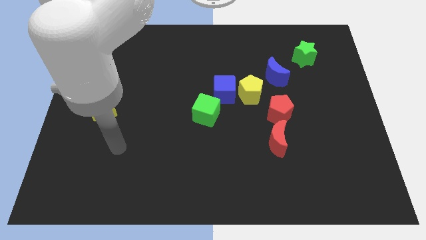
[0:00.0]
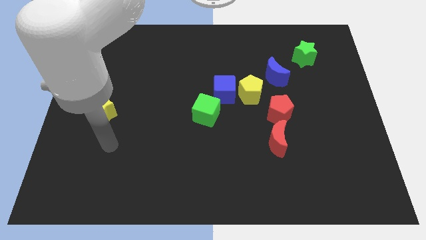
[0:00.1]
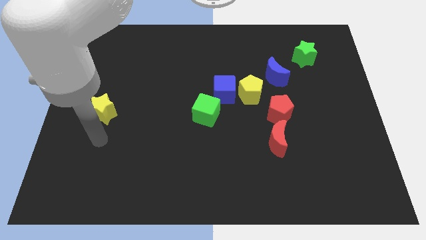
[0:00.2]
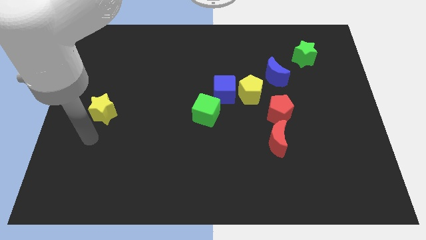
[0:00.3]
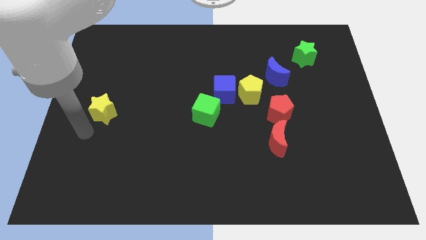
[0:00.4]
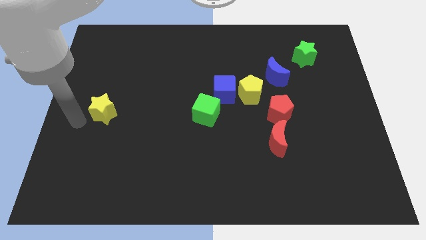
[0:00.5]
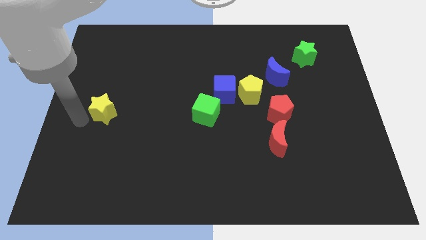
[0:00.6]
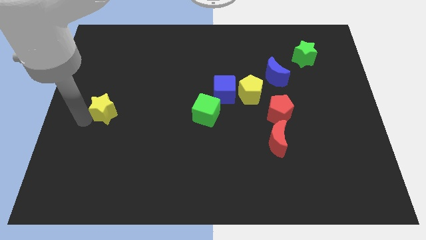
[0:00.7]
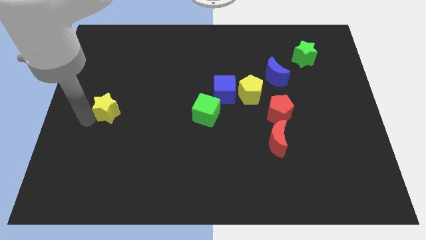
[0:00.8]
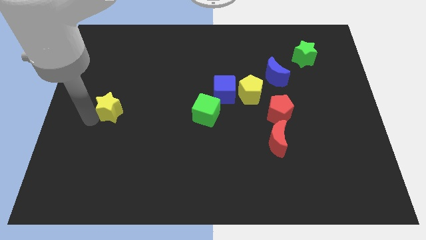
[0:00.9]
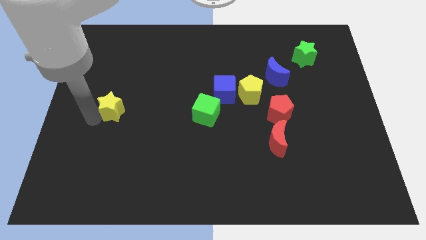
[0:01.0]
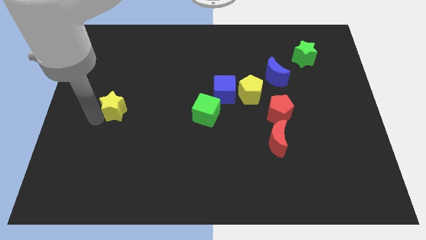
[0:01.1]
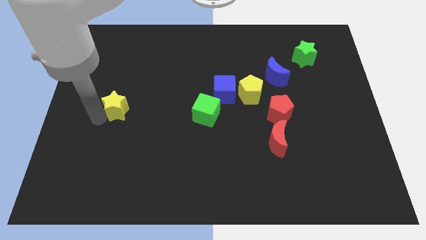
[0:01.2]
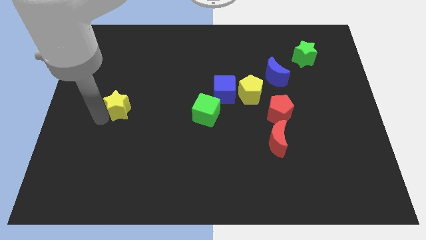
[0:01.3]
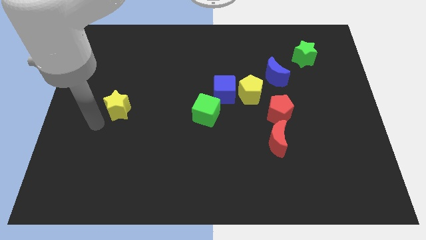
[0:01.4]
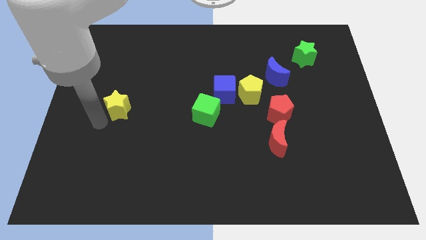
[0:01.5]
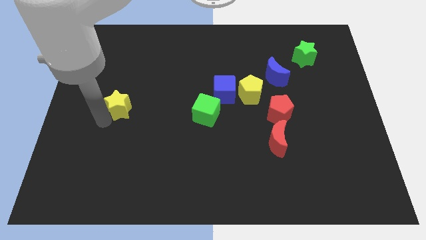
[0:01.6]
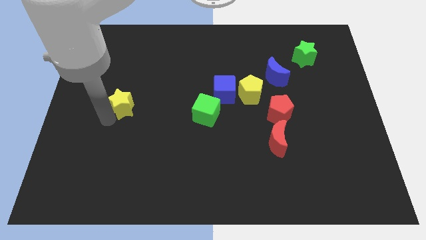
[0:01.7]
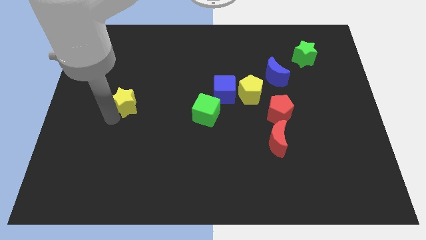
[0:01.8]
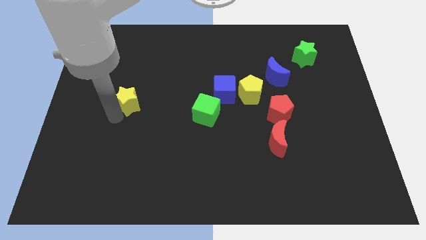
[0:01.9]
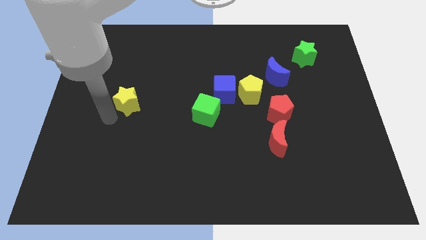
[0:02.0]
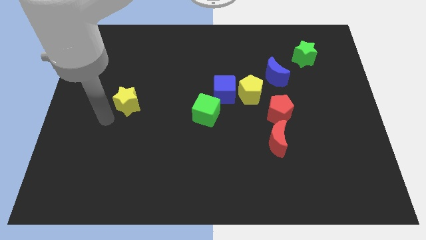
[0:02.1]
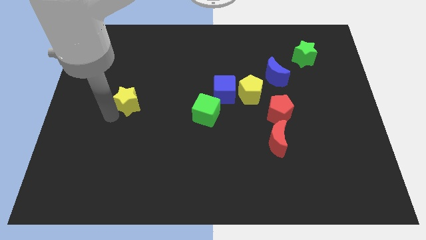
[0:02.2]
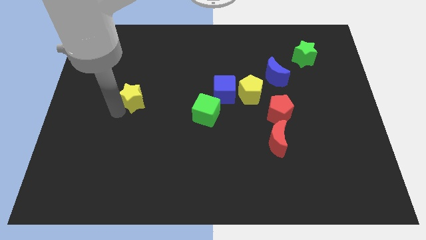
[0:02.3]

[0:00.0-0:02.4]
move the yellow star diagonally up and to the right slightly

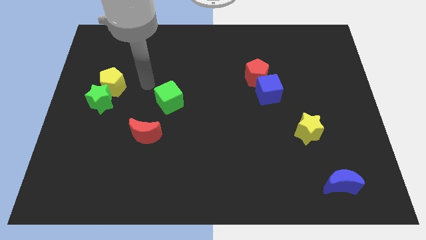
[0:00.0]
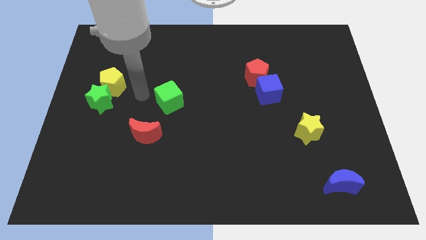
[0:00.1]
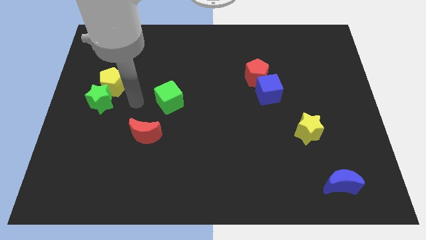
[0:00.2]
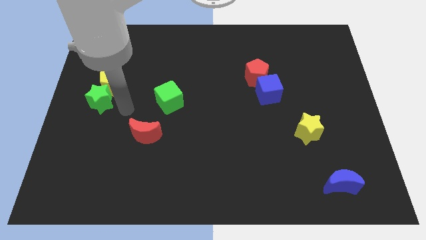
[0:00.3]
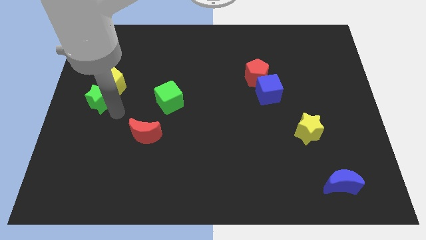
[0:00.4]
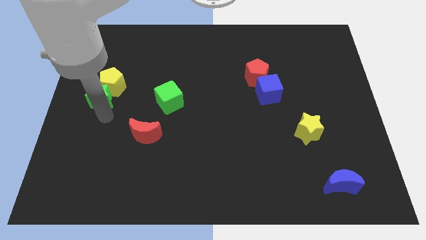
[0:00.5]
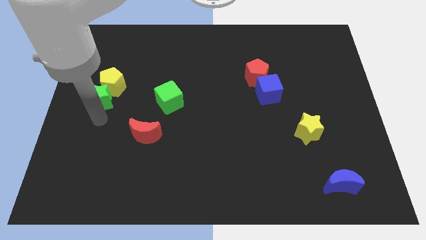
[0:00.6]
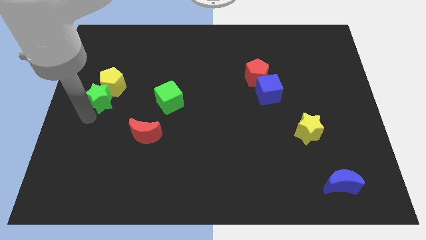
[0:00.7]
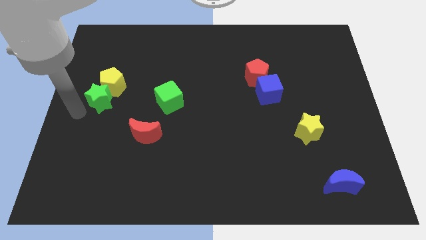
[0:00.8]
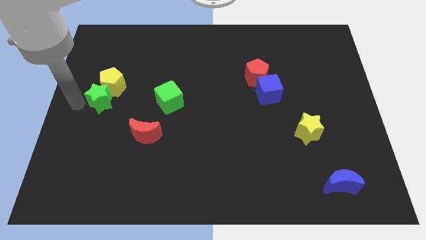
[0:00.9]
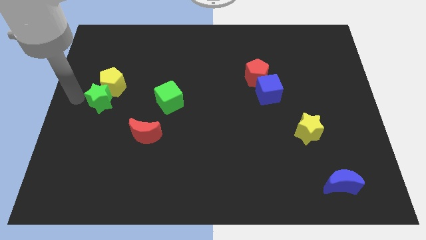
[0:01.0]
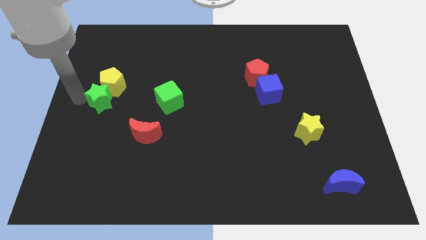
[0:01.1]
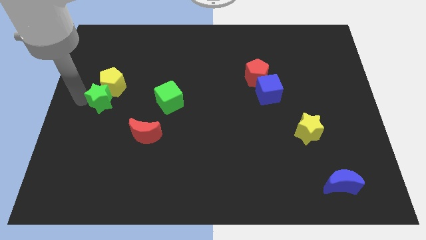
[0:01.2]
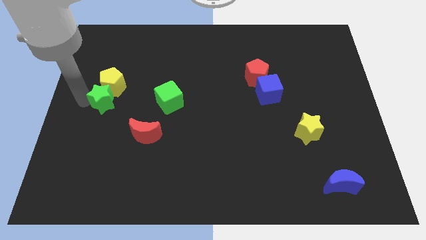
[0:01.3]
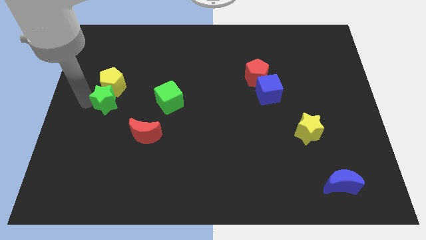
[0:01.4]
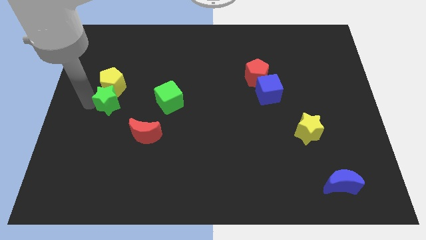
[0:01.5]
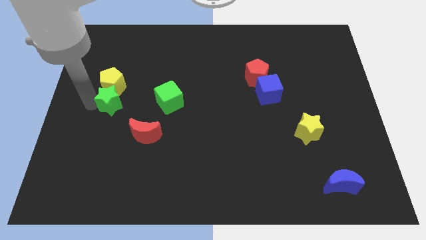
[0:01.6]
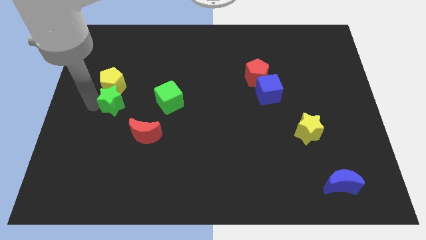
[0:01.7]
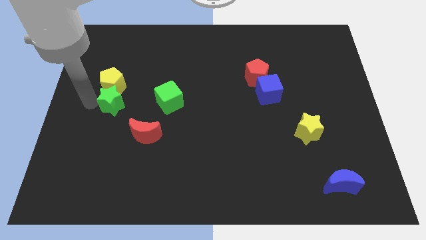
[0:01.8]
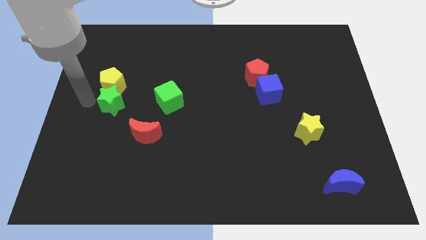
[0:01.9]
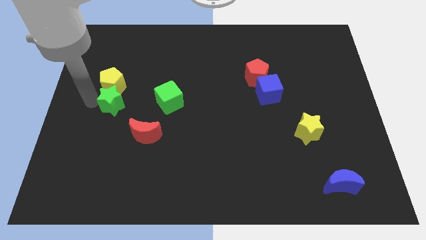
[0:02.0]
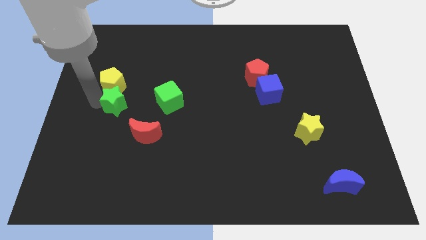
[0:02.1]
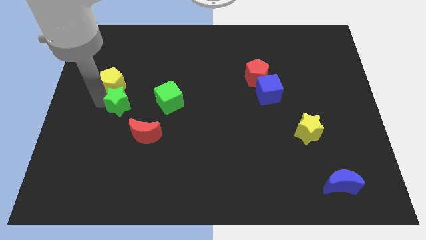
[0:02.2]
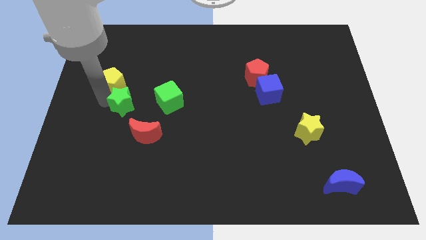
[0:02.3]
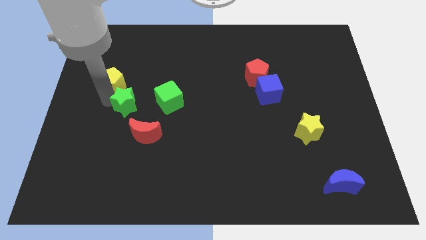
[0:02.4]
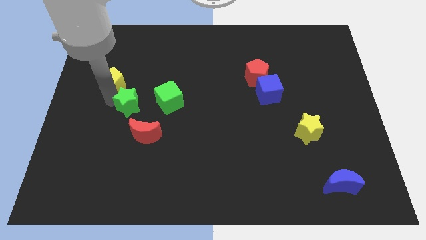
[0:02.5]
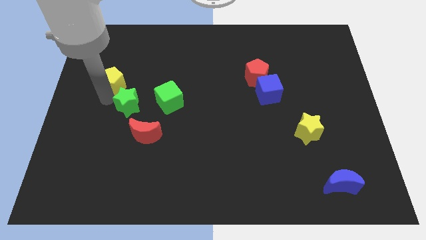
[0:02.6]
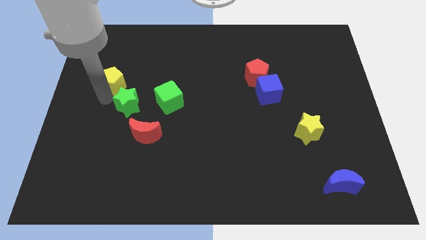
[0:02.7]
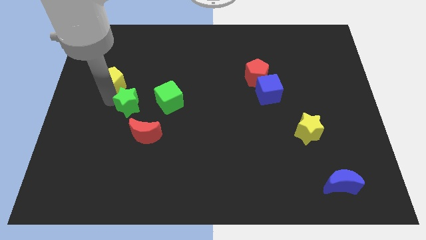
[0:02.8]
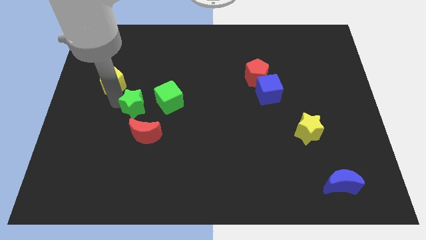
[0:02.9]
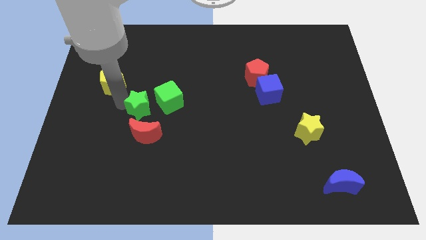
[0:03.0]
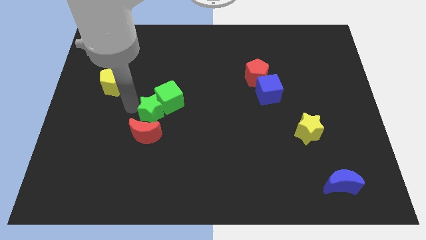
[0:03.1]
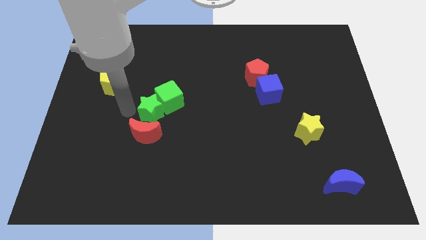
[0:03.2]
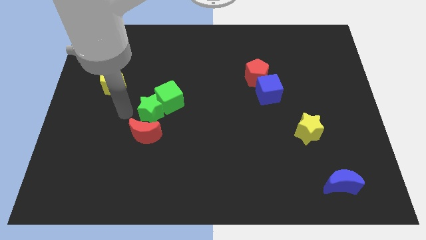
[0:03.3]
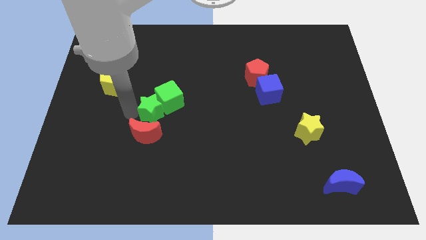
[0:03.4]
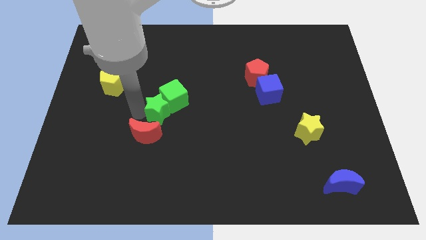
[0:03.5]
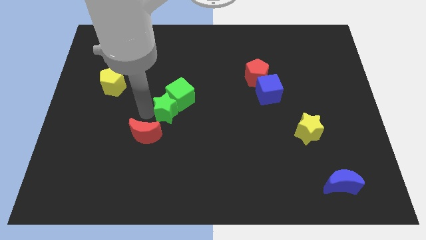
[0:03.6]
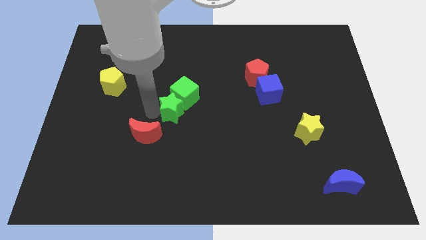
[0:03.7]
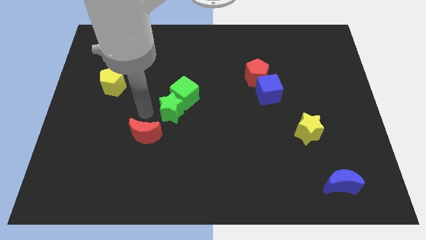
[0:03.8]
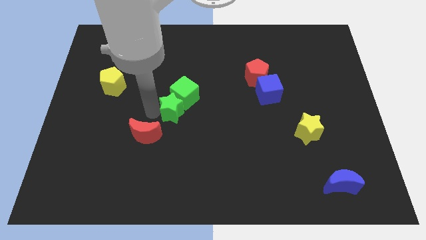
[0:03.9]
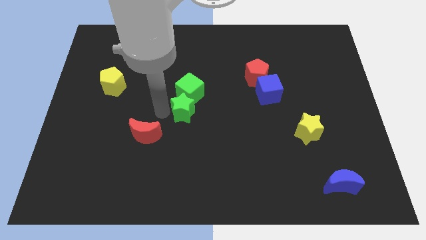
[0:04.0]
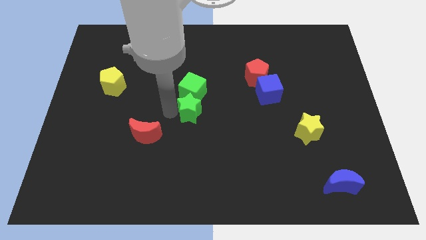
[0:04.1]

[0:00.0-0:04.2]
push the green star to the right

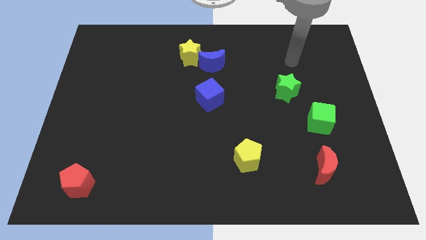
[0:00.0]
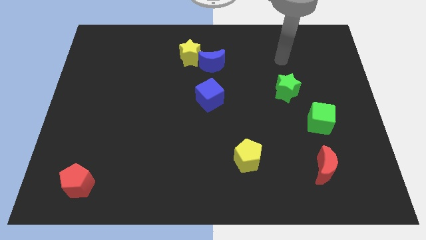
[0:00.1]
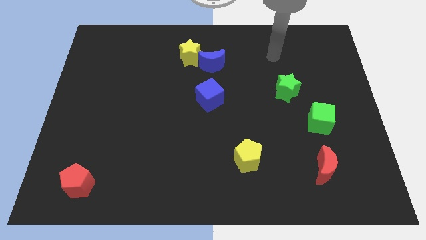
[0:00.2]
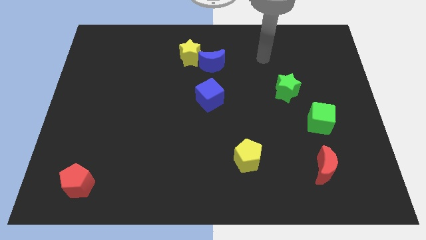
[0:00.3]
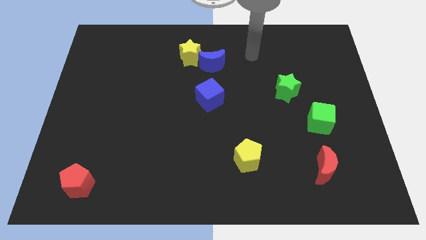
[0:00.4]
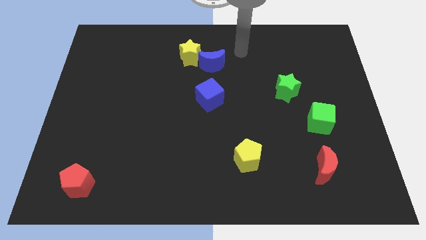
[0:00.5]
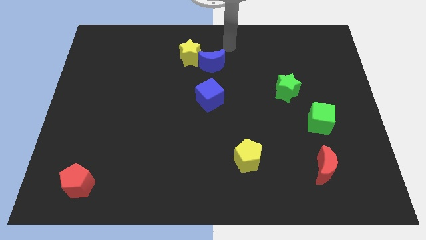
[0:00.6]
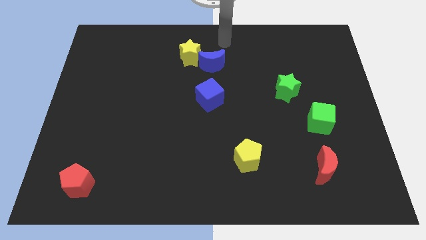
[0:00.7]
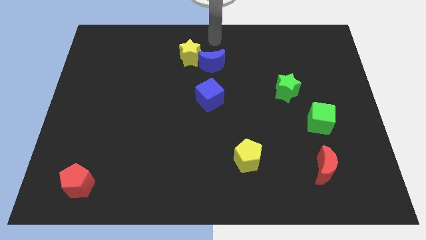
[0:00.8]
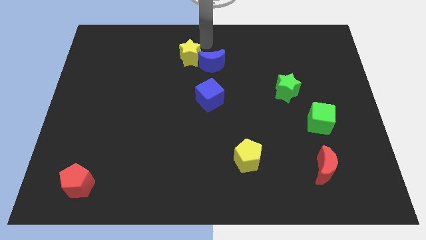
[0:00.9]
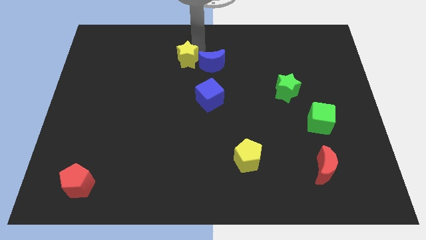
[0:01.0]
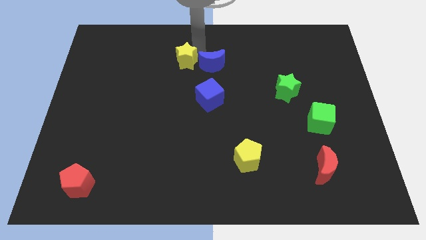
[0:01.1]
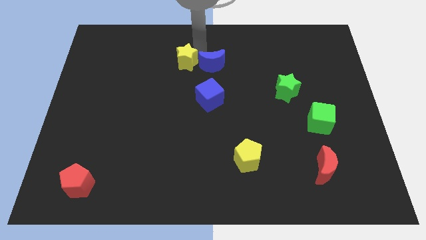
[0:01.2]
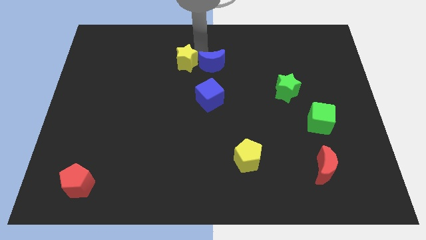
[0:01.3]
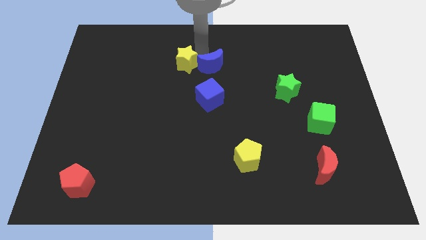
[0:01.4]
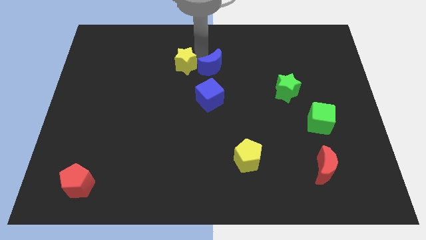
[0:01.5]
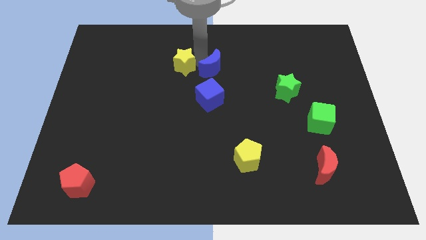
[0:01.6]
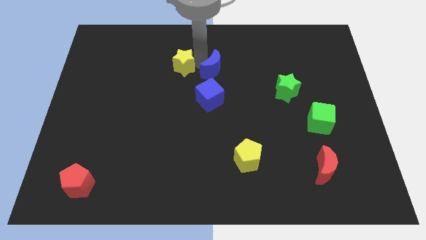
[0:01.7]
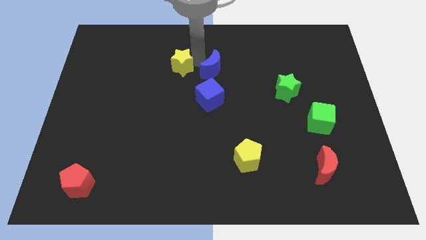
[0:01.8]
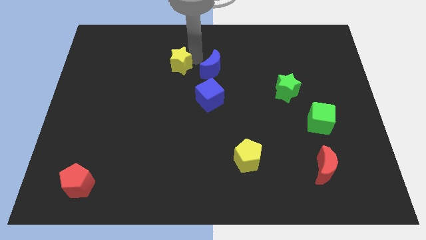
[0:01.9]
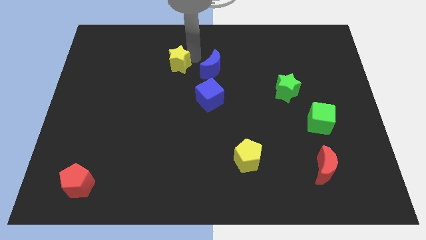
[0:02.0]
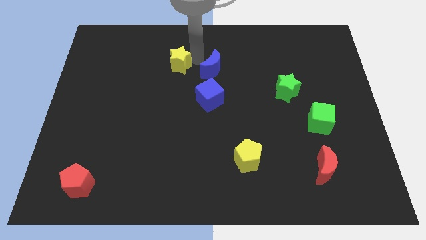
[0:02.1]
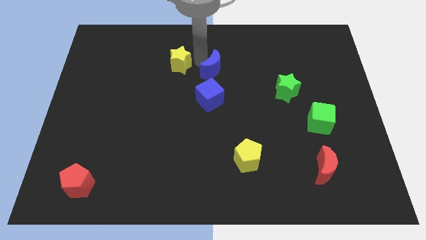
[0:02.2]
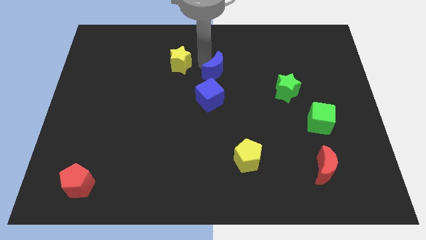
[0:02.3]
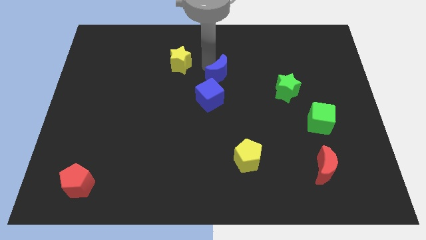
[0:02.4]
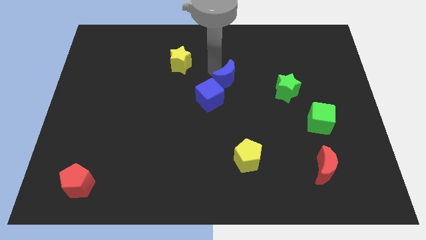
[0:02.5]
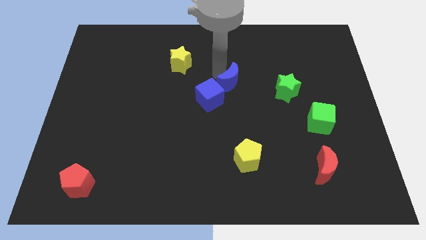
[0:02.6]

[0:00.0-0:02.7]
push the blue moon a little downwards and right diagonally
